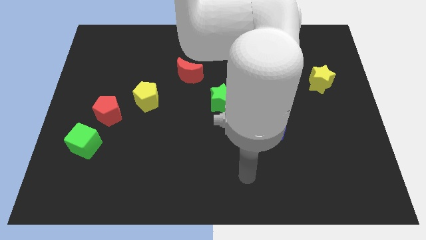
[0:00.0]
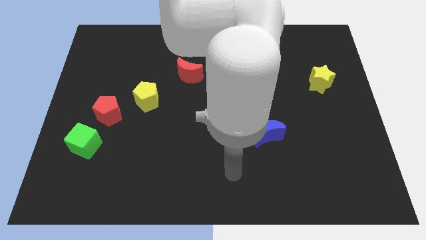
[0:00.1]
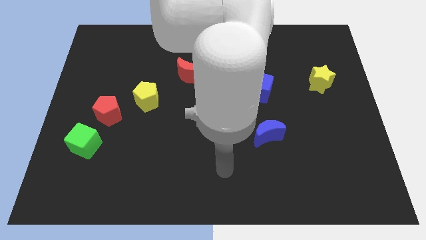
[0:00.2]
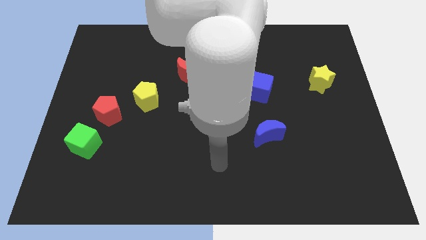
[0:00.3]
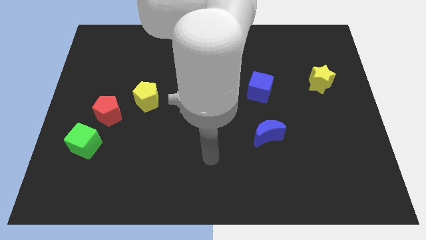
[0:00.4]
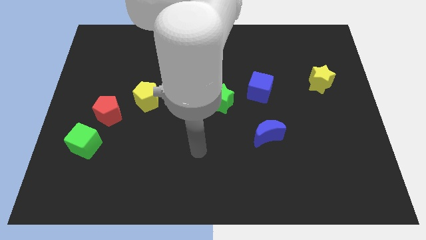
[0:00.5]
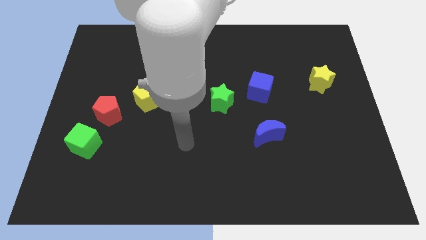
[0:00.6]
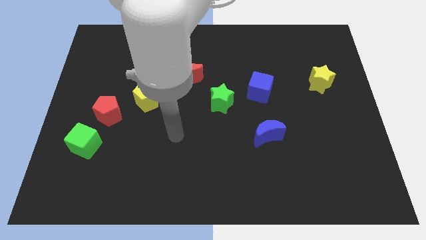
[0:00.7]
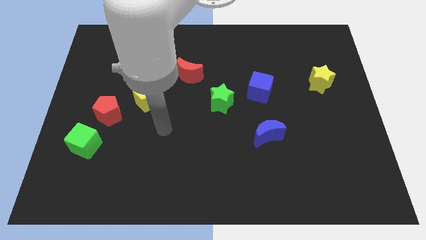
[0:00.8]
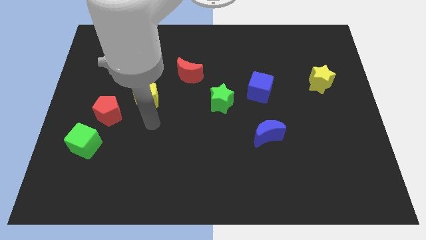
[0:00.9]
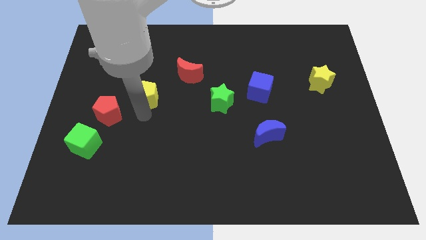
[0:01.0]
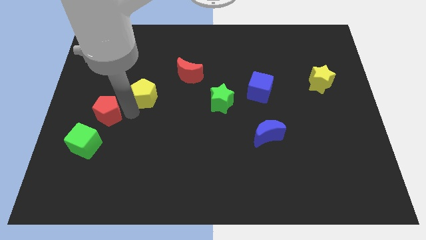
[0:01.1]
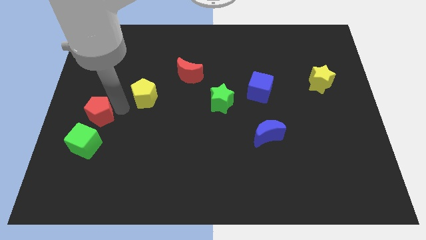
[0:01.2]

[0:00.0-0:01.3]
separate the yellow pentagon from the red pentagon

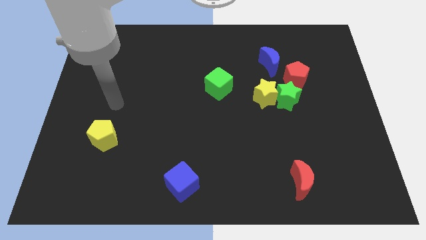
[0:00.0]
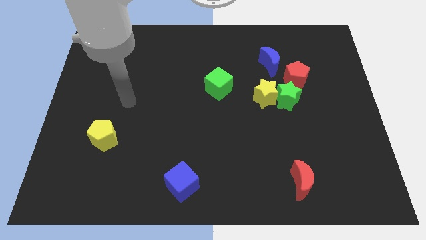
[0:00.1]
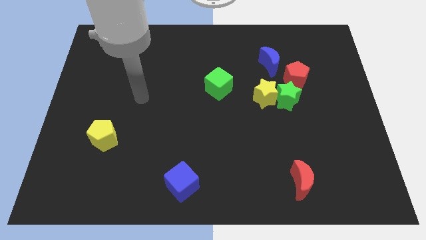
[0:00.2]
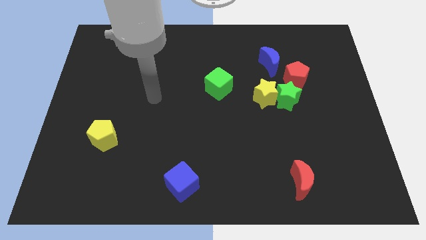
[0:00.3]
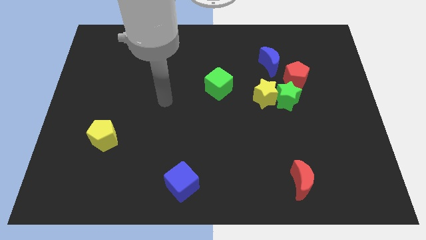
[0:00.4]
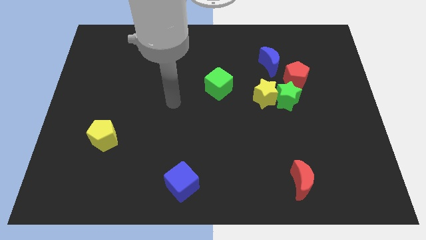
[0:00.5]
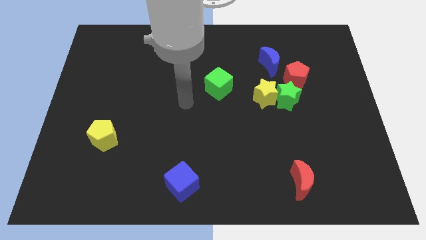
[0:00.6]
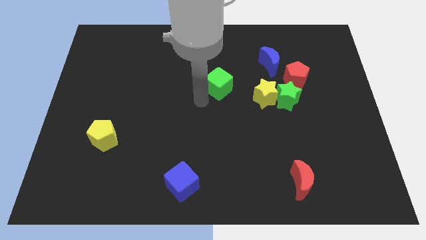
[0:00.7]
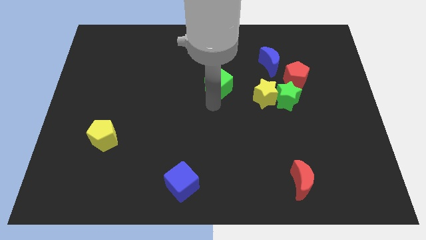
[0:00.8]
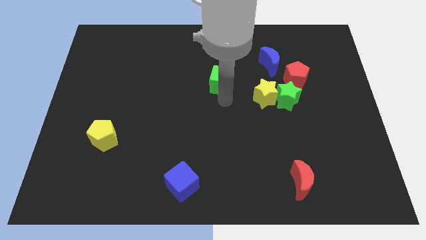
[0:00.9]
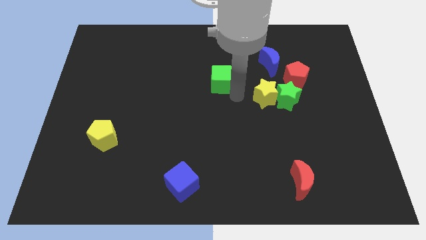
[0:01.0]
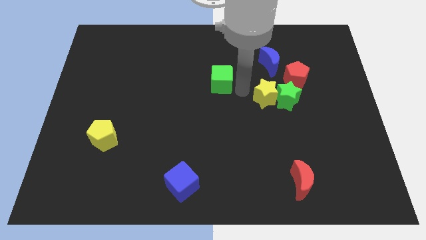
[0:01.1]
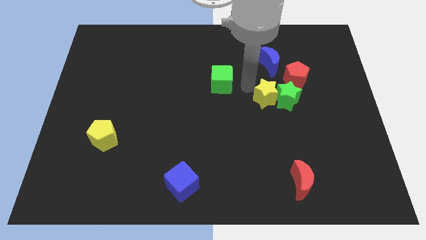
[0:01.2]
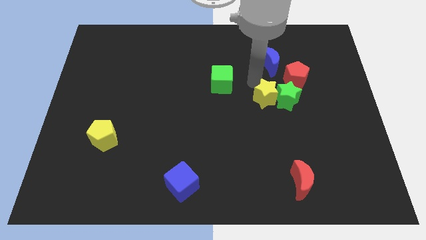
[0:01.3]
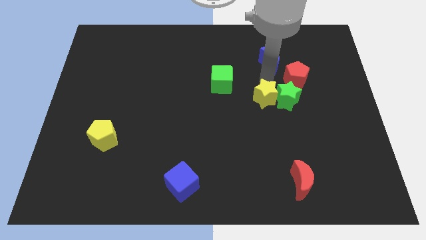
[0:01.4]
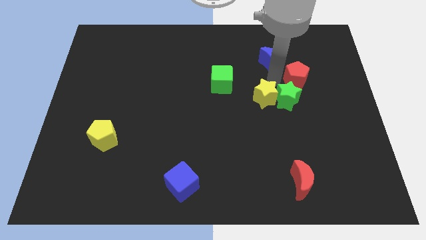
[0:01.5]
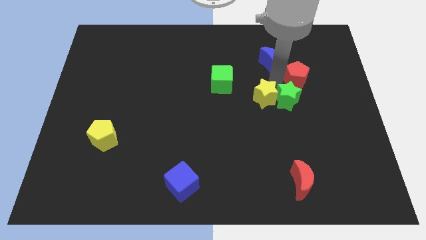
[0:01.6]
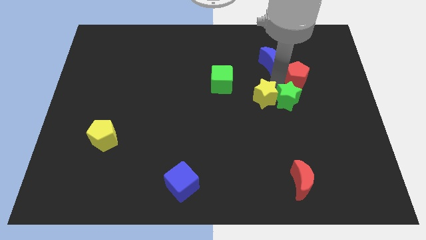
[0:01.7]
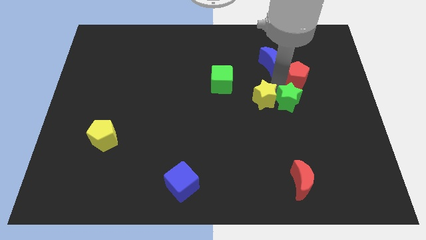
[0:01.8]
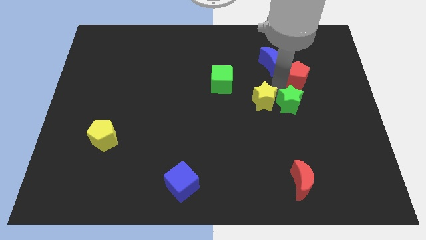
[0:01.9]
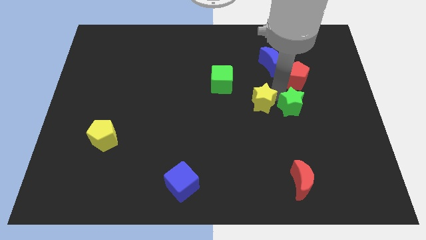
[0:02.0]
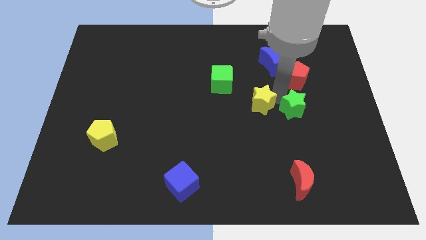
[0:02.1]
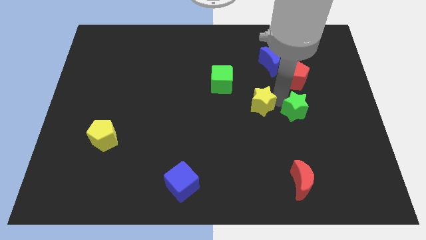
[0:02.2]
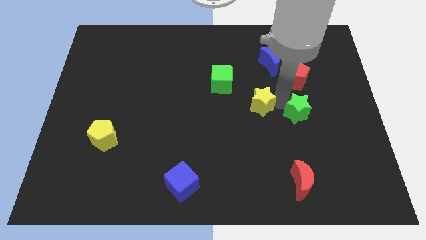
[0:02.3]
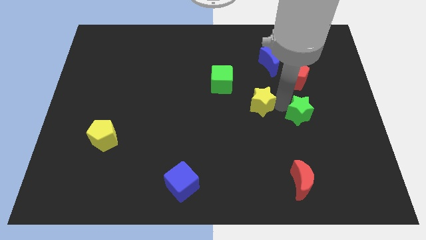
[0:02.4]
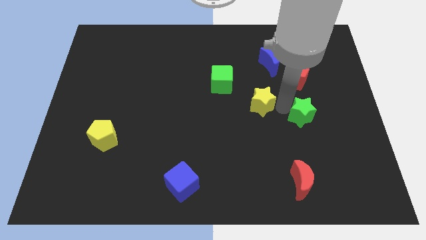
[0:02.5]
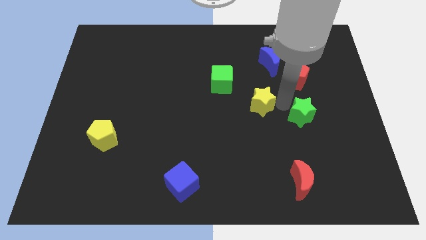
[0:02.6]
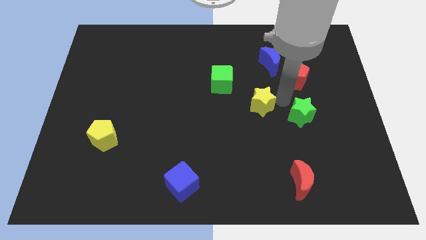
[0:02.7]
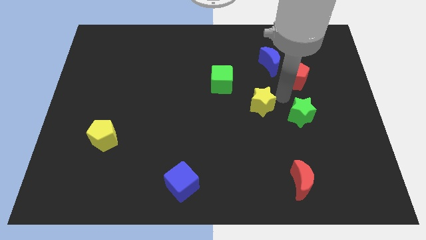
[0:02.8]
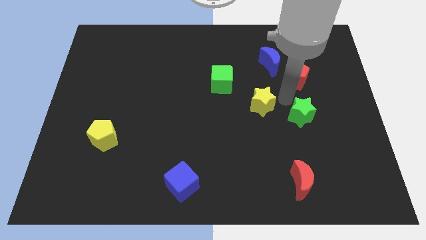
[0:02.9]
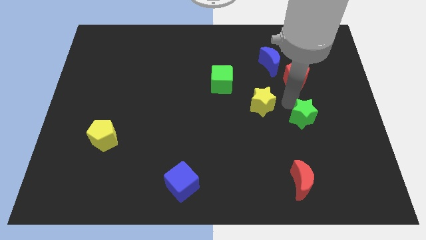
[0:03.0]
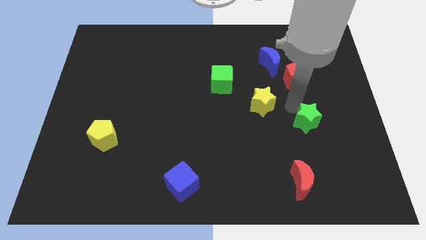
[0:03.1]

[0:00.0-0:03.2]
pull the green star apart from the yellow star and red pentagon

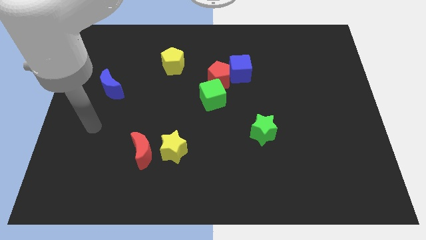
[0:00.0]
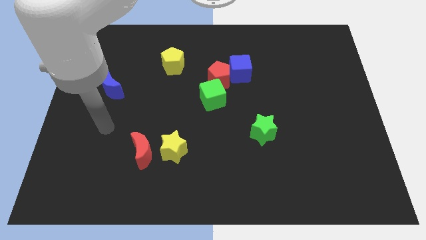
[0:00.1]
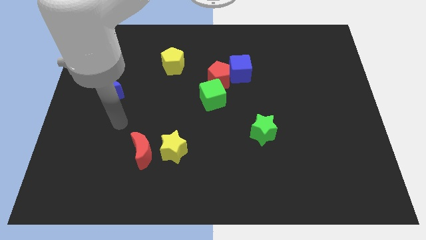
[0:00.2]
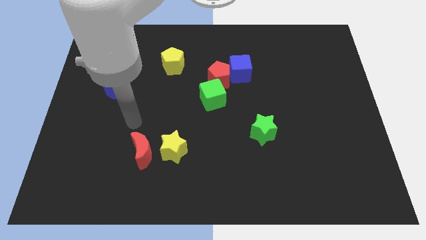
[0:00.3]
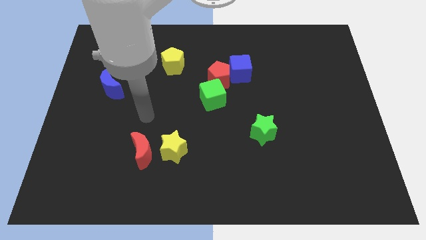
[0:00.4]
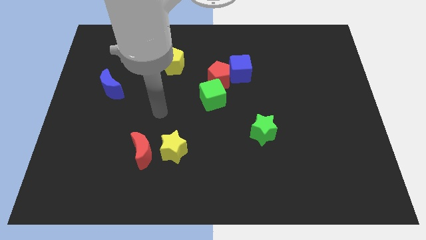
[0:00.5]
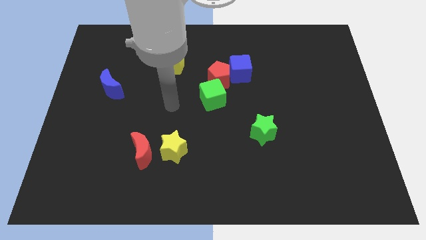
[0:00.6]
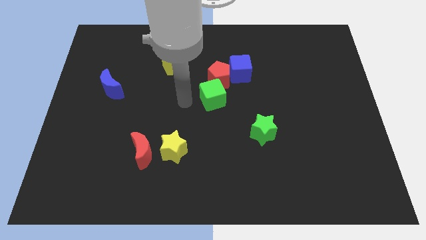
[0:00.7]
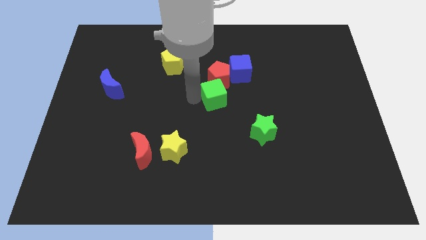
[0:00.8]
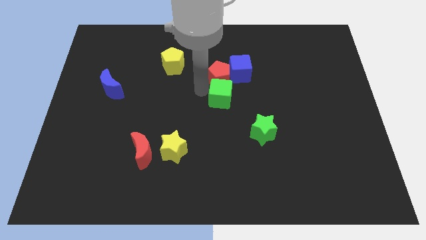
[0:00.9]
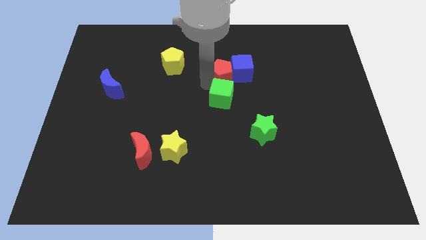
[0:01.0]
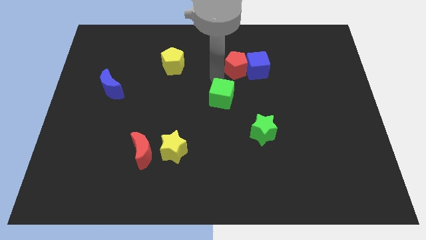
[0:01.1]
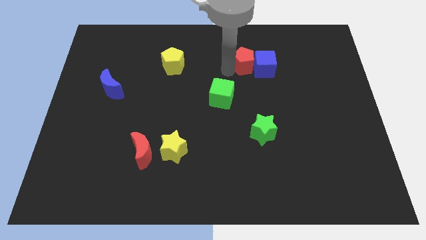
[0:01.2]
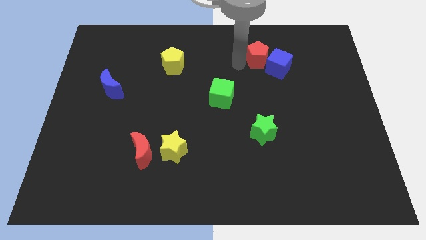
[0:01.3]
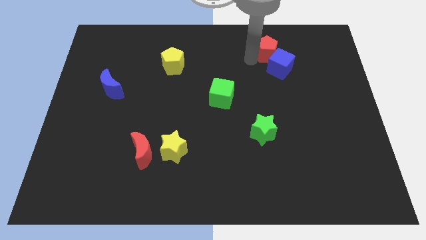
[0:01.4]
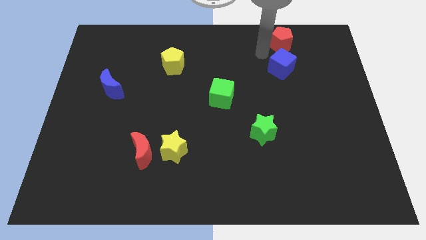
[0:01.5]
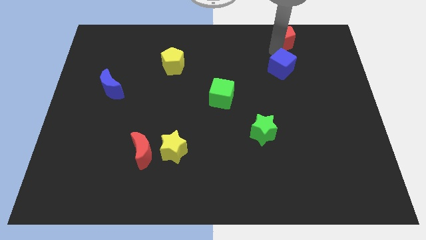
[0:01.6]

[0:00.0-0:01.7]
move the blue cube away from the red pentagon

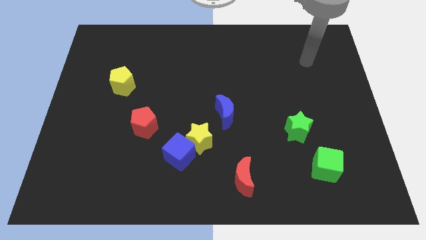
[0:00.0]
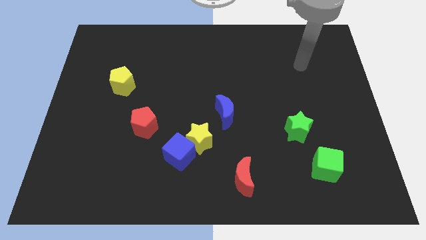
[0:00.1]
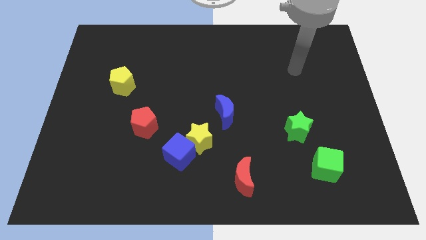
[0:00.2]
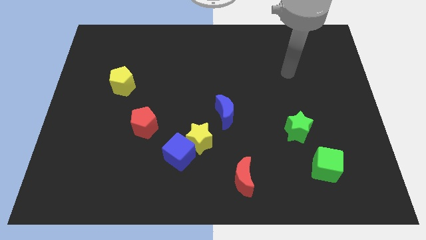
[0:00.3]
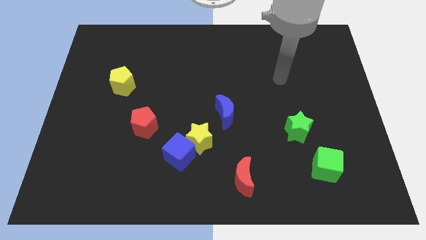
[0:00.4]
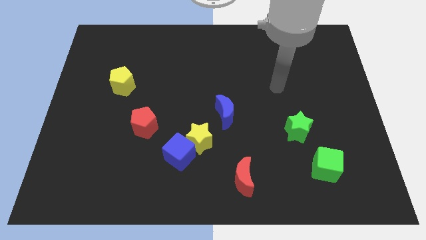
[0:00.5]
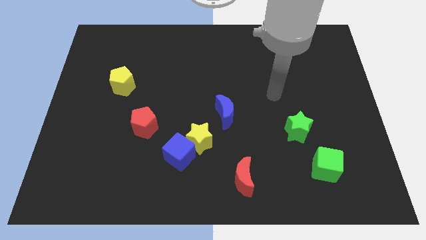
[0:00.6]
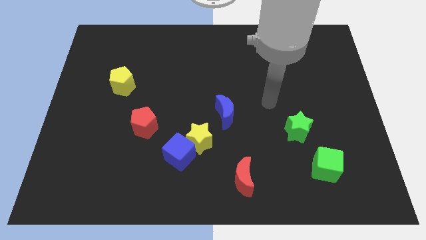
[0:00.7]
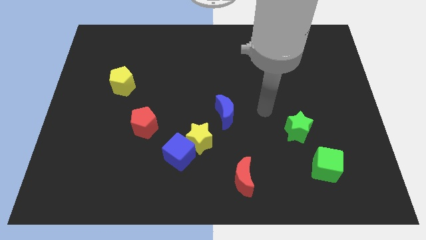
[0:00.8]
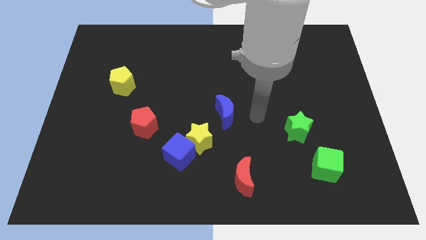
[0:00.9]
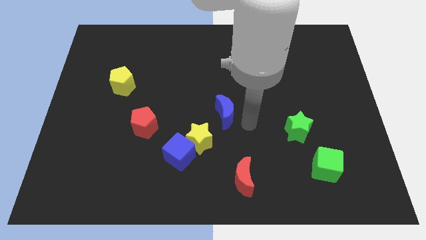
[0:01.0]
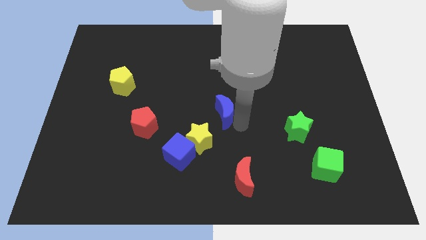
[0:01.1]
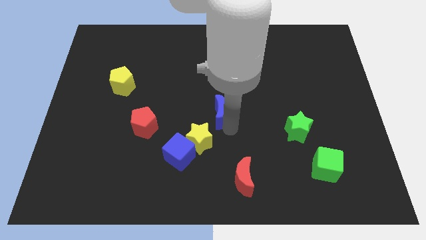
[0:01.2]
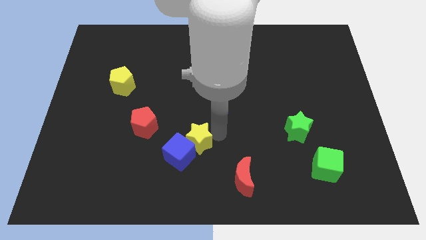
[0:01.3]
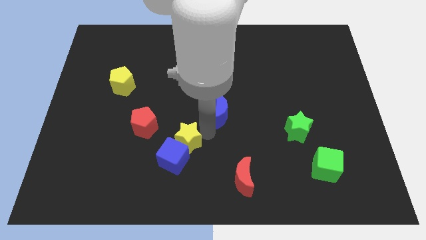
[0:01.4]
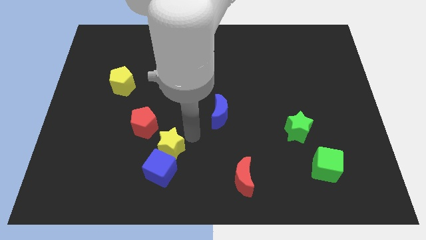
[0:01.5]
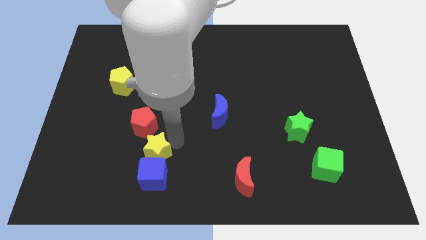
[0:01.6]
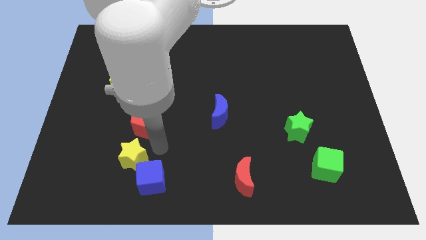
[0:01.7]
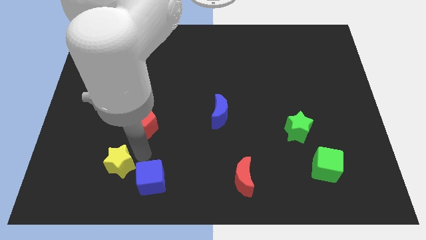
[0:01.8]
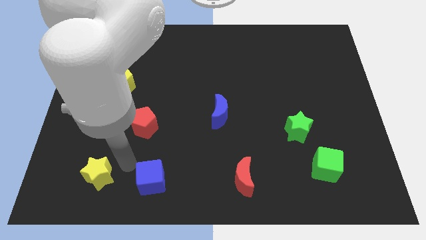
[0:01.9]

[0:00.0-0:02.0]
move the blue cube away from the yellow star

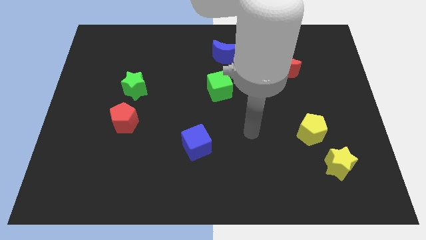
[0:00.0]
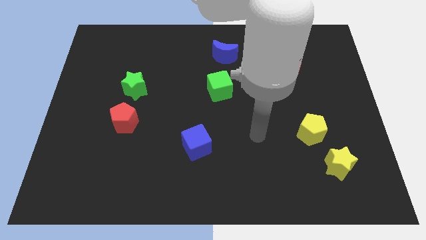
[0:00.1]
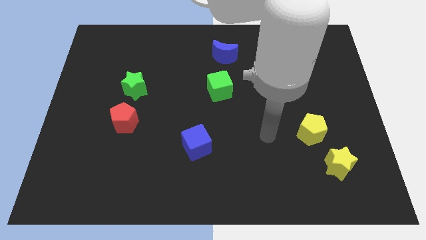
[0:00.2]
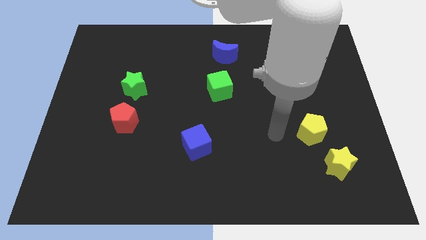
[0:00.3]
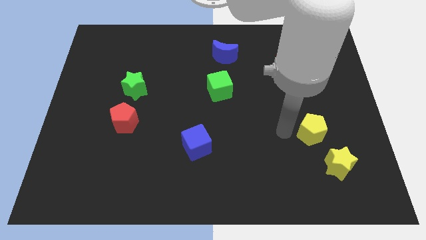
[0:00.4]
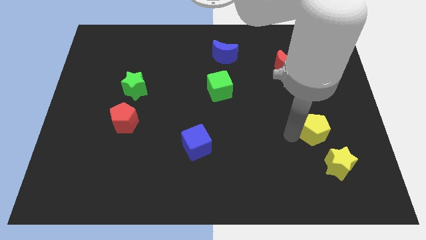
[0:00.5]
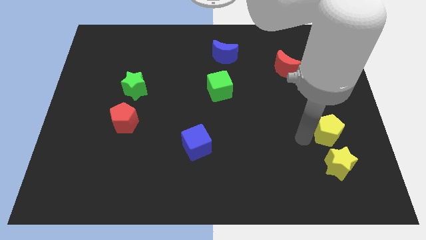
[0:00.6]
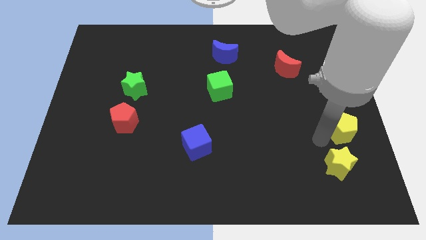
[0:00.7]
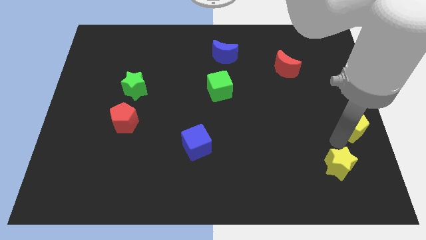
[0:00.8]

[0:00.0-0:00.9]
separate the yellow star from the yellow pentagon
